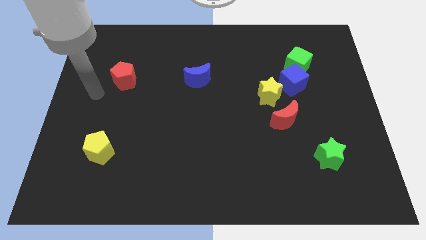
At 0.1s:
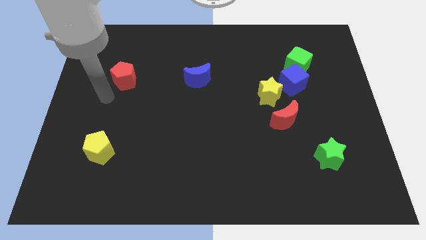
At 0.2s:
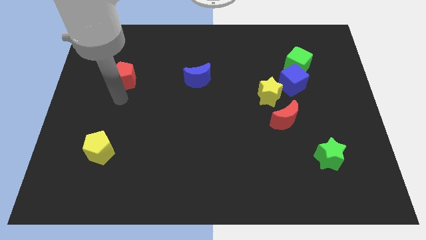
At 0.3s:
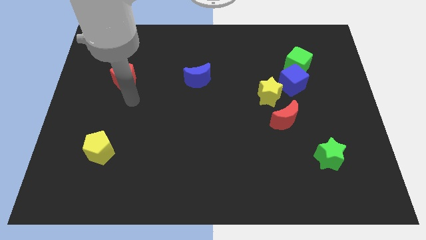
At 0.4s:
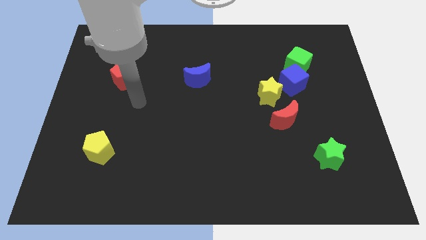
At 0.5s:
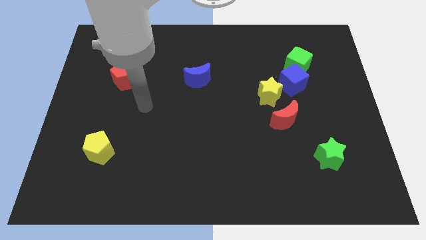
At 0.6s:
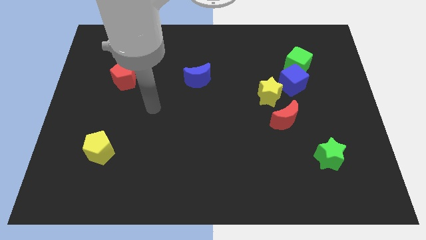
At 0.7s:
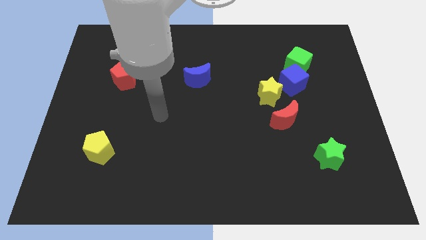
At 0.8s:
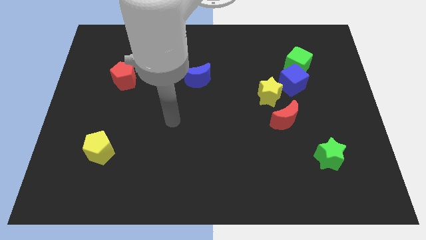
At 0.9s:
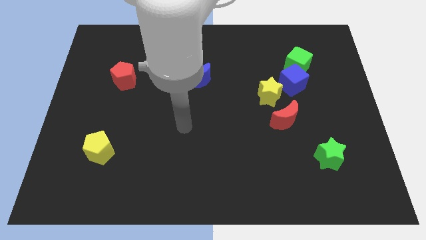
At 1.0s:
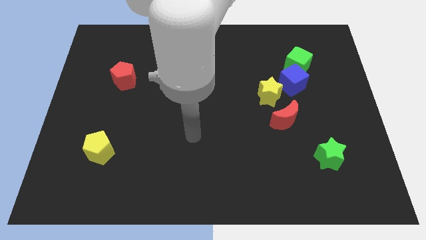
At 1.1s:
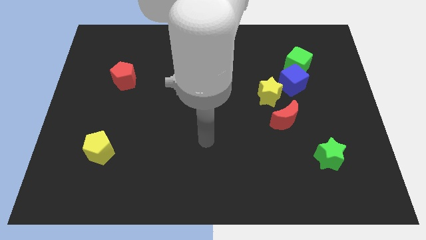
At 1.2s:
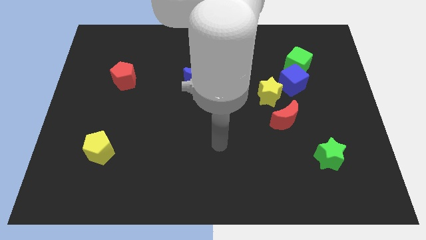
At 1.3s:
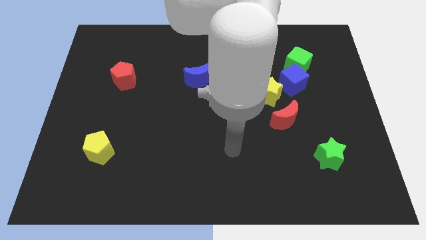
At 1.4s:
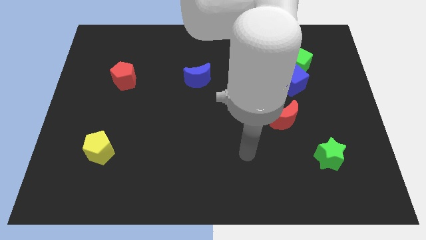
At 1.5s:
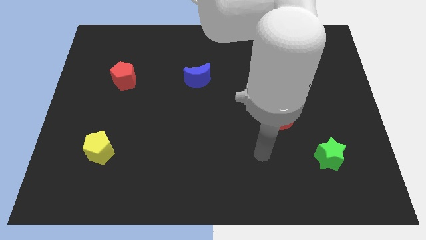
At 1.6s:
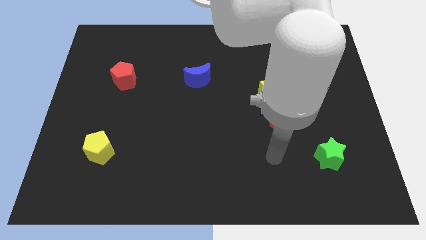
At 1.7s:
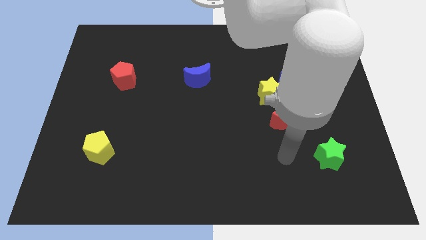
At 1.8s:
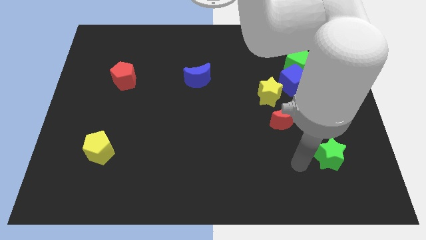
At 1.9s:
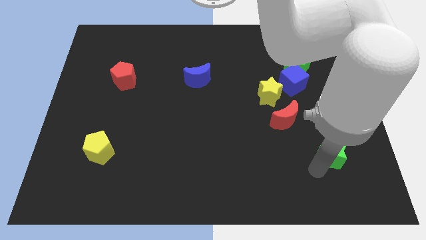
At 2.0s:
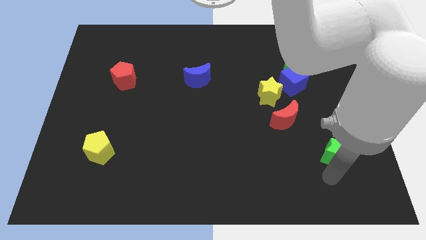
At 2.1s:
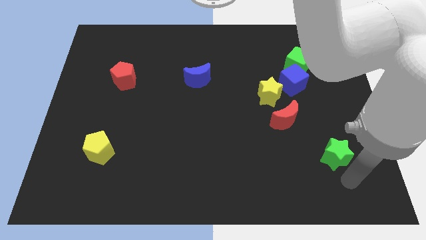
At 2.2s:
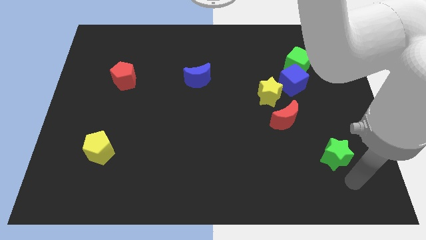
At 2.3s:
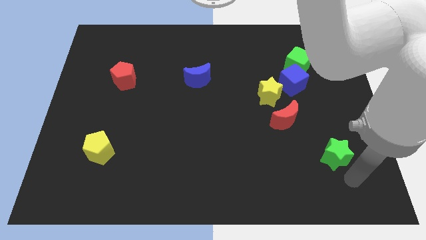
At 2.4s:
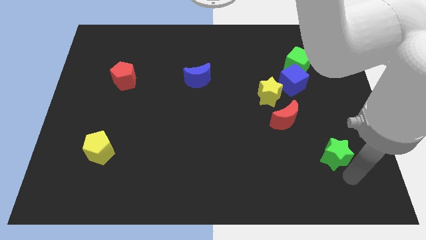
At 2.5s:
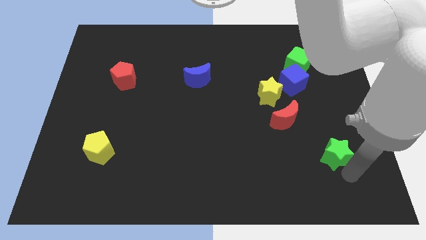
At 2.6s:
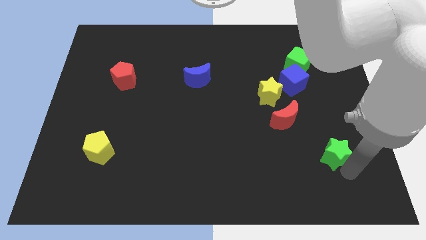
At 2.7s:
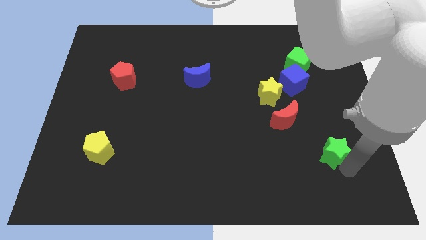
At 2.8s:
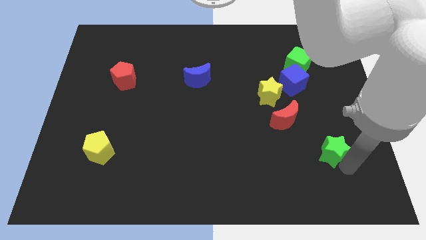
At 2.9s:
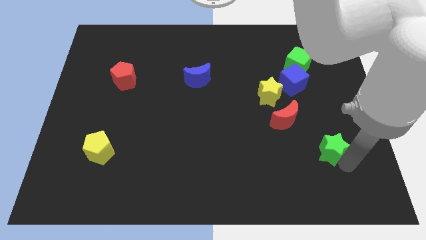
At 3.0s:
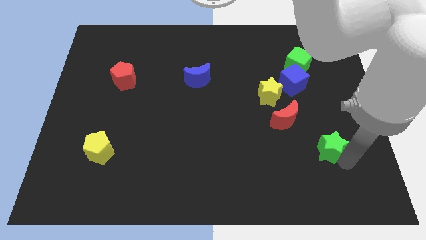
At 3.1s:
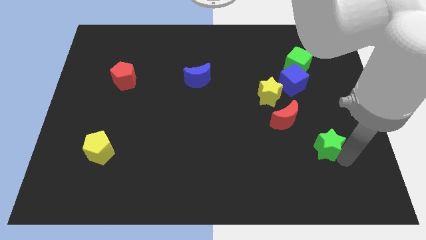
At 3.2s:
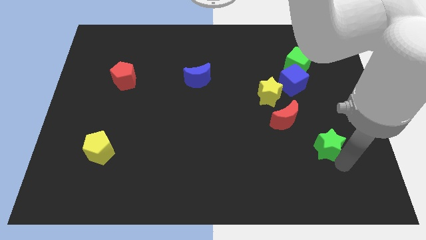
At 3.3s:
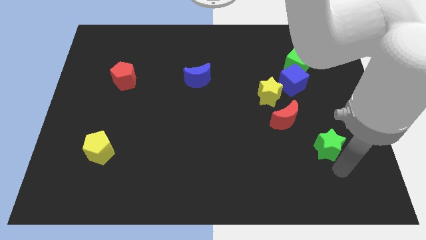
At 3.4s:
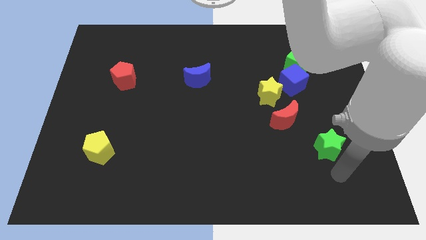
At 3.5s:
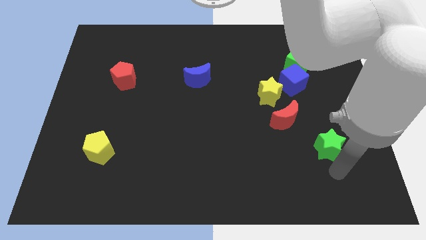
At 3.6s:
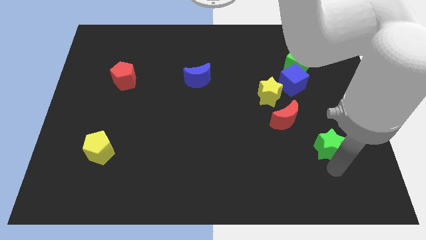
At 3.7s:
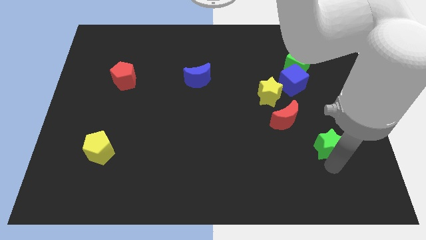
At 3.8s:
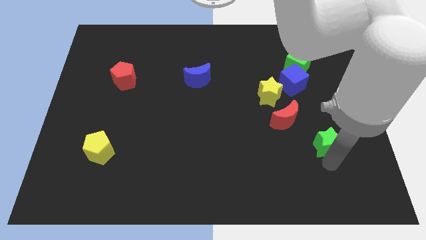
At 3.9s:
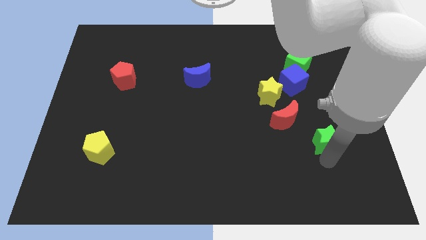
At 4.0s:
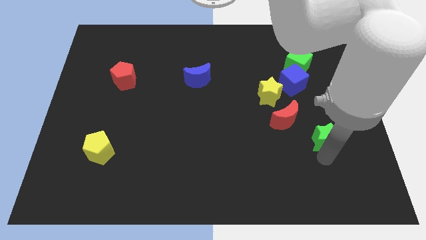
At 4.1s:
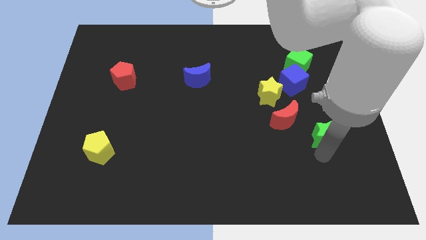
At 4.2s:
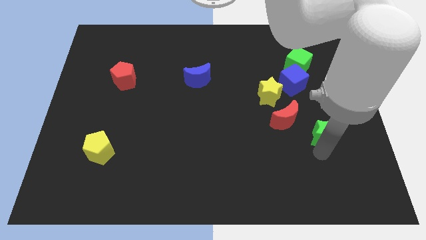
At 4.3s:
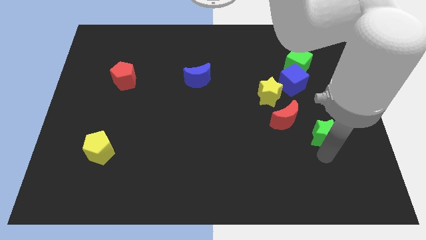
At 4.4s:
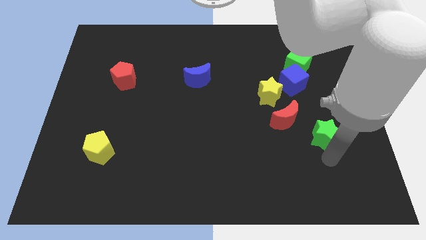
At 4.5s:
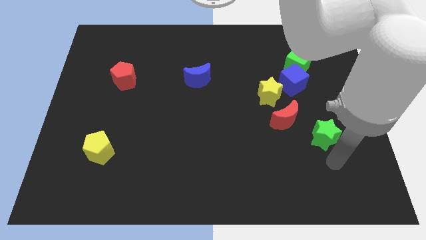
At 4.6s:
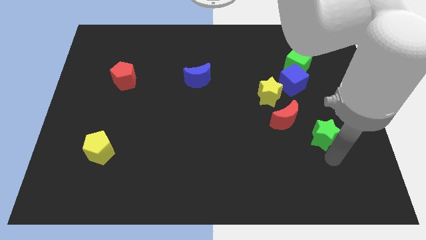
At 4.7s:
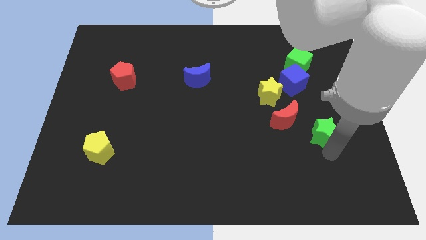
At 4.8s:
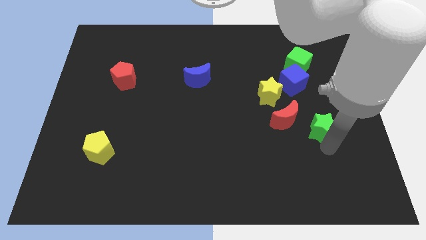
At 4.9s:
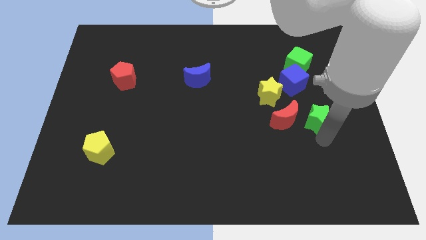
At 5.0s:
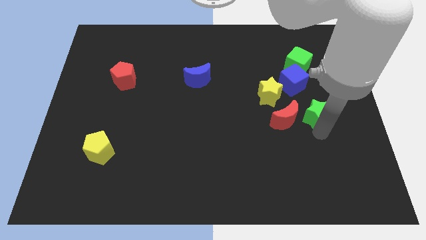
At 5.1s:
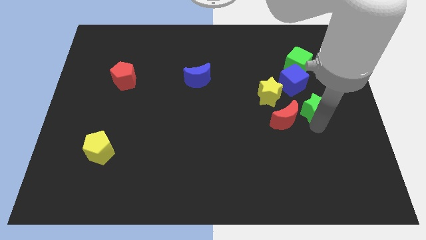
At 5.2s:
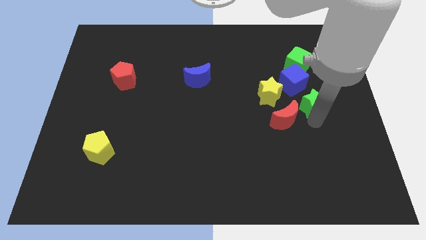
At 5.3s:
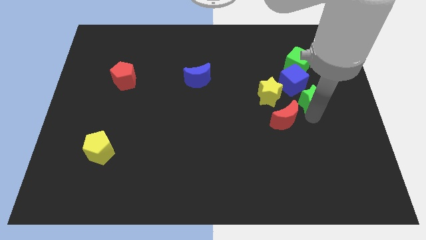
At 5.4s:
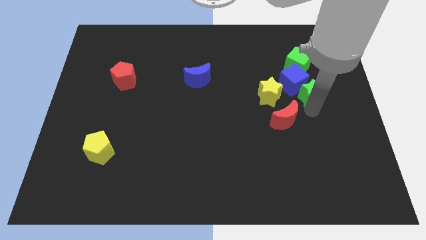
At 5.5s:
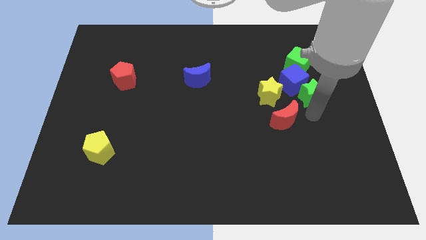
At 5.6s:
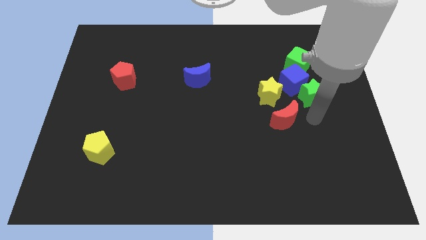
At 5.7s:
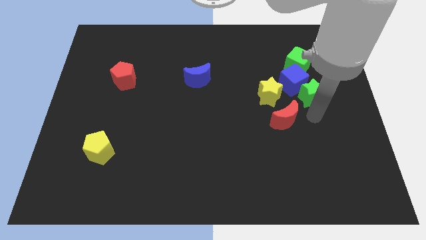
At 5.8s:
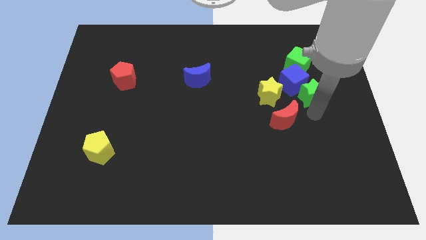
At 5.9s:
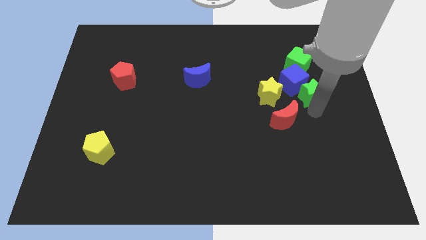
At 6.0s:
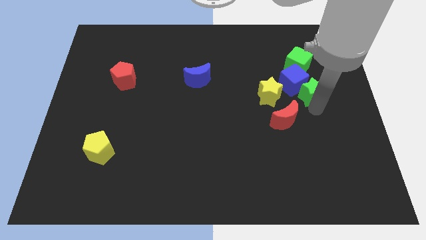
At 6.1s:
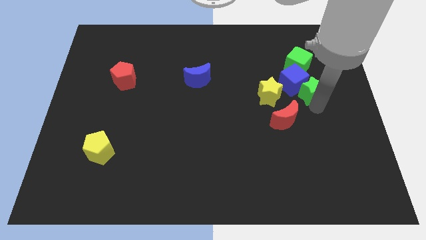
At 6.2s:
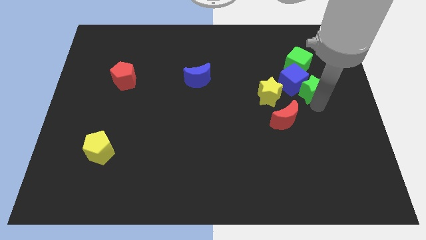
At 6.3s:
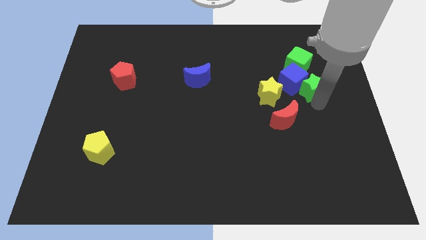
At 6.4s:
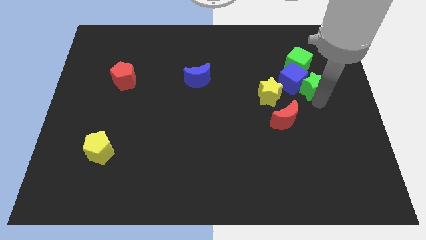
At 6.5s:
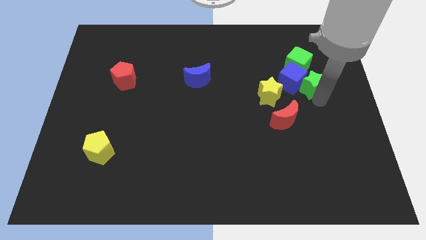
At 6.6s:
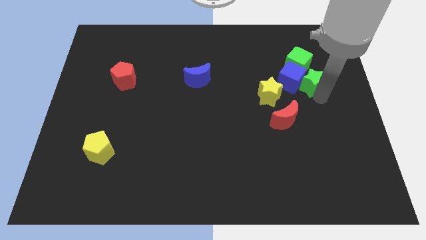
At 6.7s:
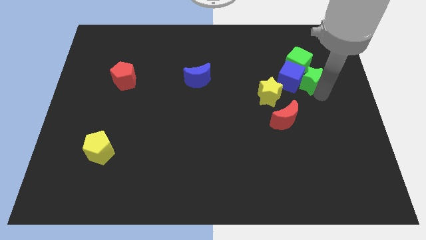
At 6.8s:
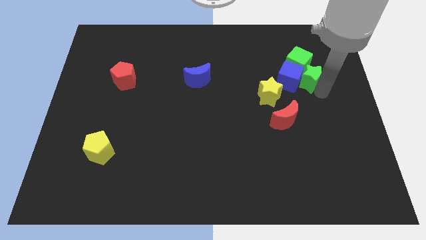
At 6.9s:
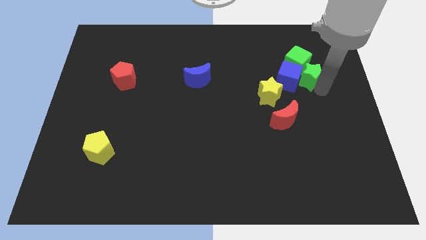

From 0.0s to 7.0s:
slide the green star close to the green cube
